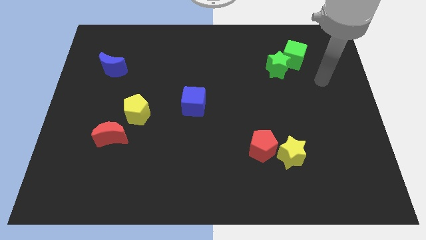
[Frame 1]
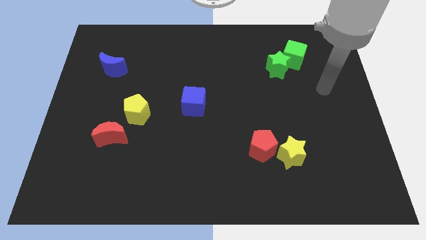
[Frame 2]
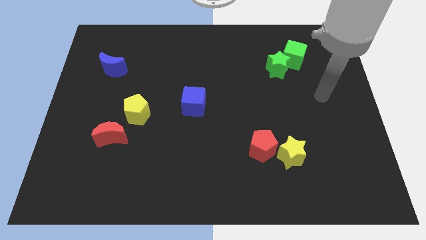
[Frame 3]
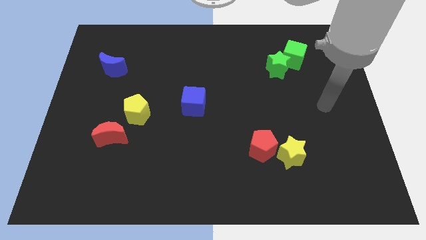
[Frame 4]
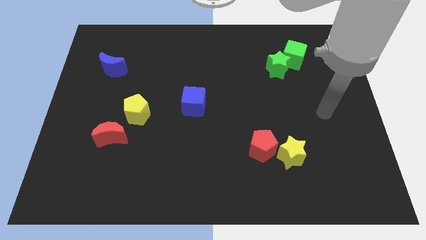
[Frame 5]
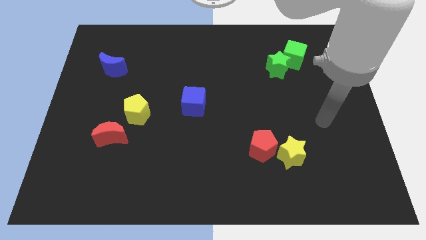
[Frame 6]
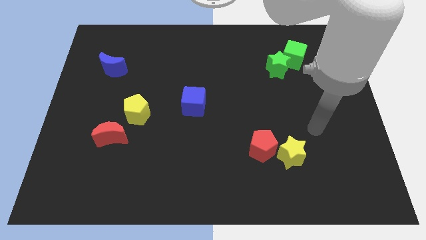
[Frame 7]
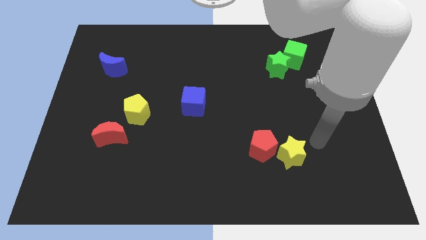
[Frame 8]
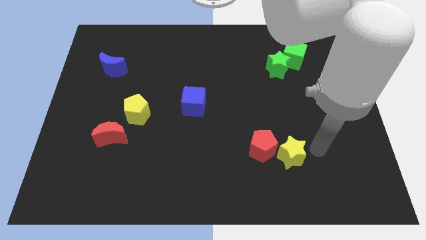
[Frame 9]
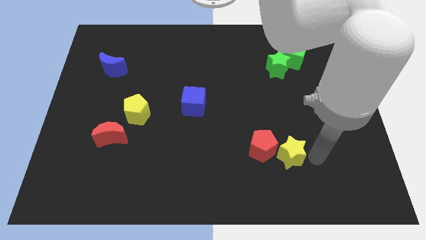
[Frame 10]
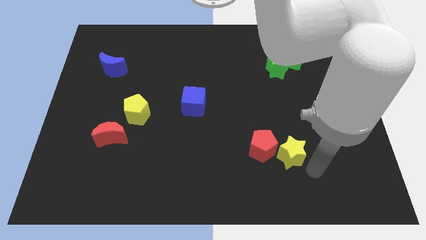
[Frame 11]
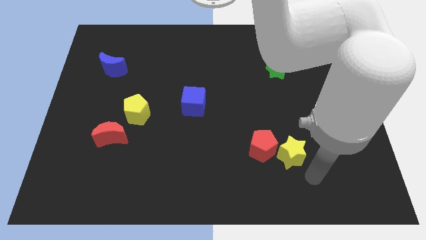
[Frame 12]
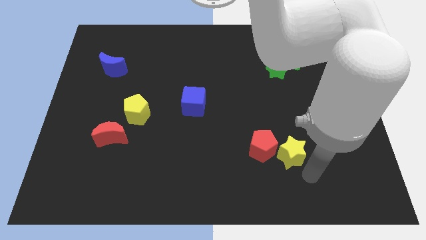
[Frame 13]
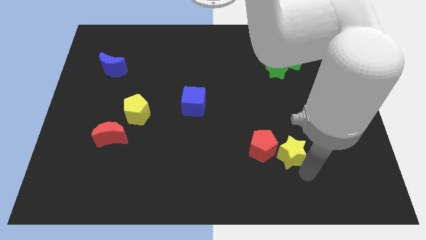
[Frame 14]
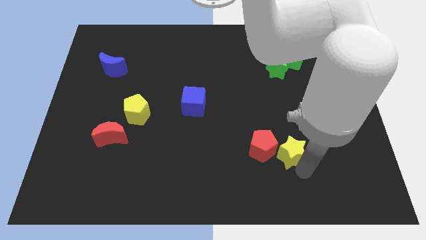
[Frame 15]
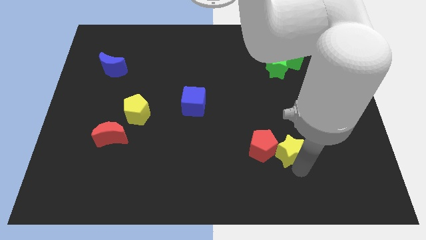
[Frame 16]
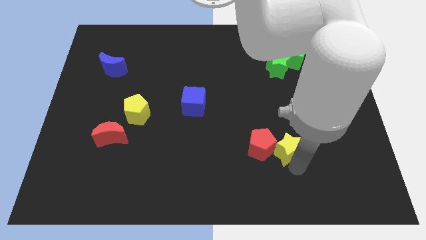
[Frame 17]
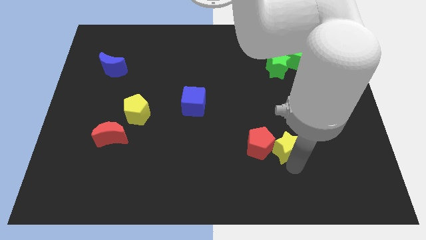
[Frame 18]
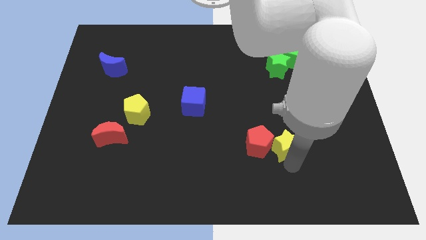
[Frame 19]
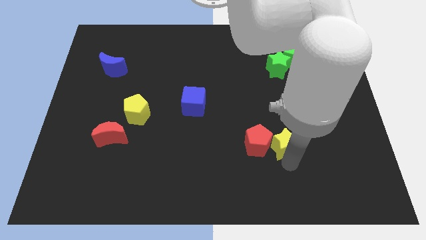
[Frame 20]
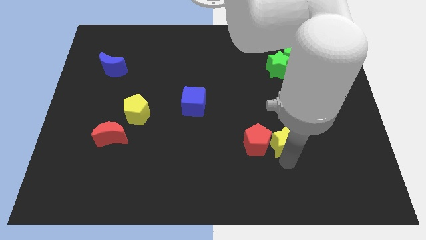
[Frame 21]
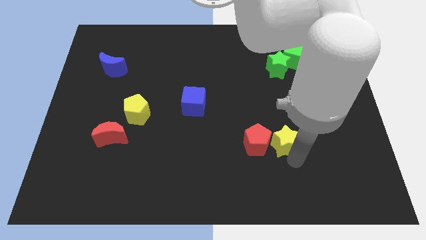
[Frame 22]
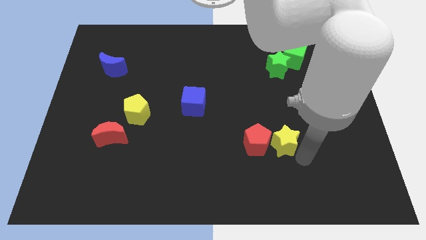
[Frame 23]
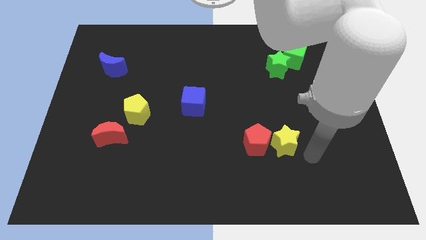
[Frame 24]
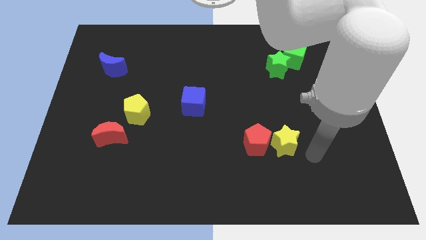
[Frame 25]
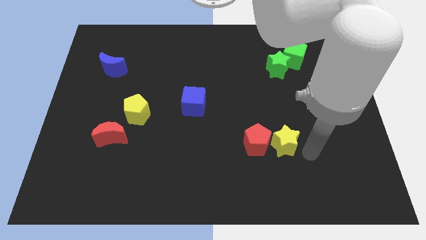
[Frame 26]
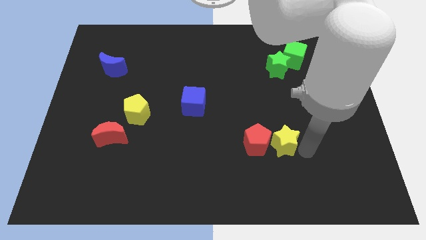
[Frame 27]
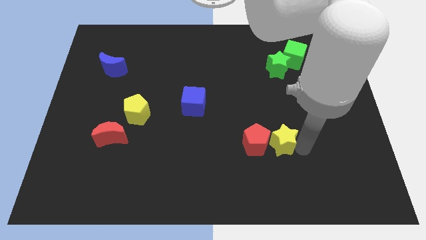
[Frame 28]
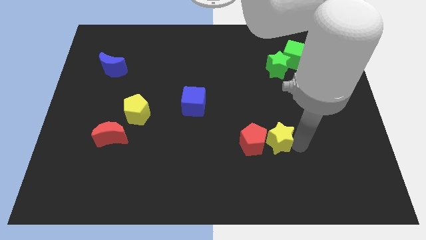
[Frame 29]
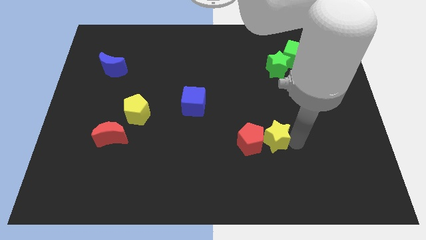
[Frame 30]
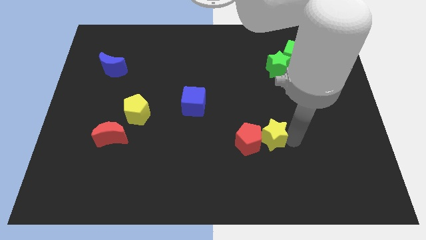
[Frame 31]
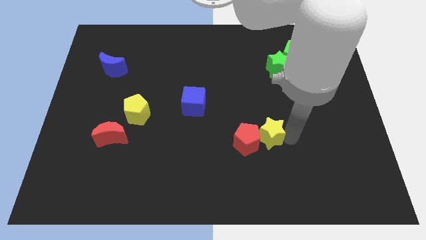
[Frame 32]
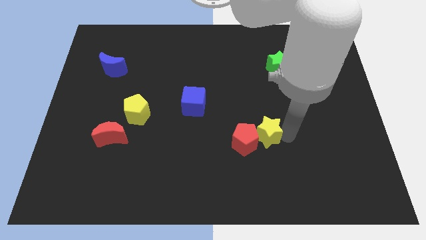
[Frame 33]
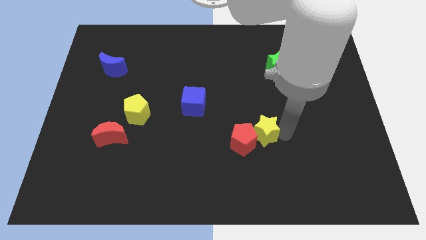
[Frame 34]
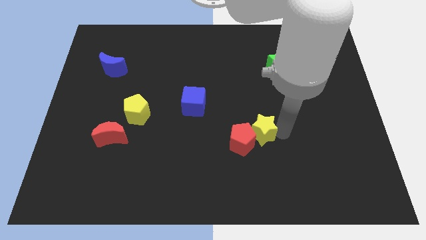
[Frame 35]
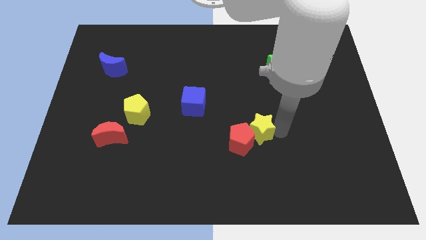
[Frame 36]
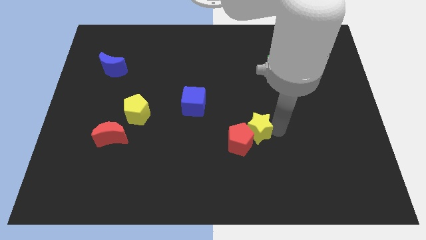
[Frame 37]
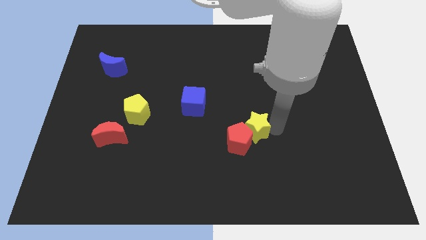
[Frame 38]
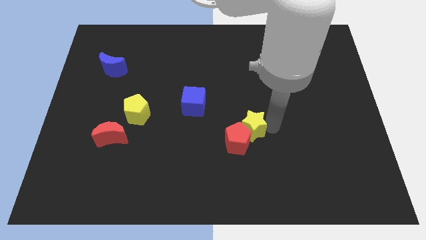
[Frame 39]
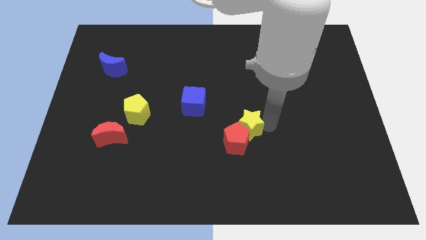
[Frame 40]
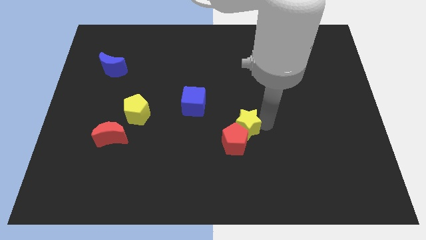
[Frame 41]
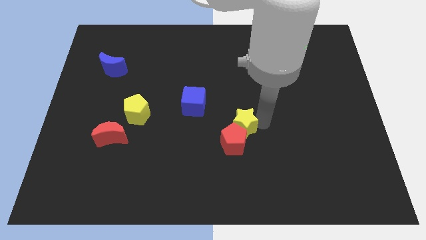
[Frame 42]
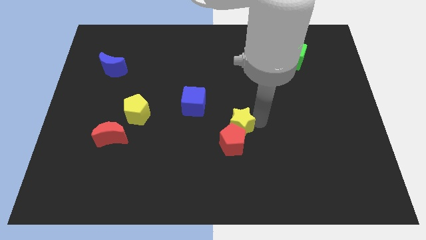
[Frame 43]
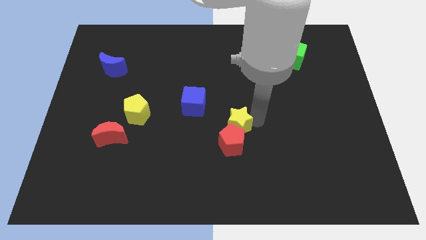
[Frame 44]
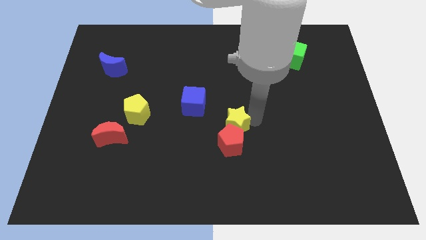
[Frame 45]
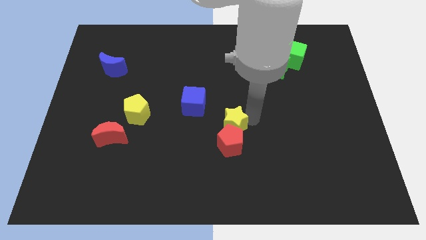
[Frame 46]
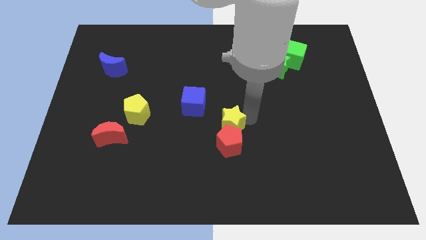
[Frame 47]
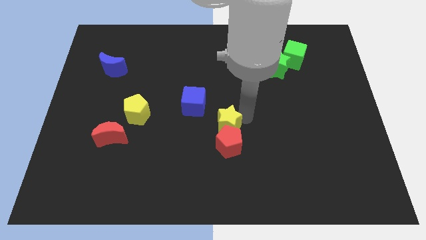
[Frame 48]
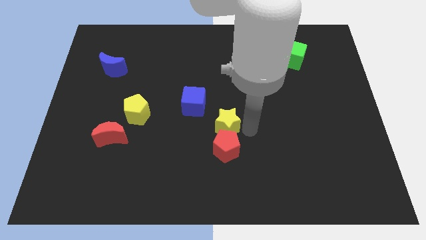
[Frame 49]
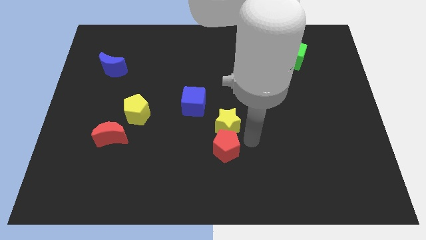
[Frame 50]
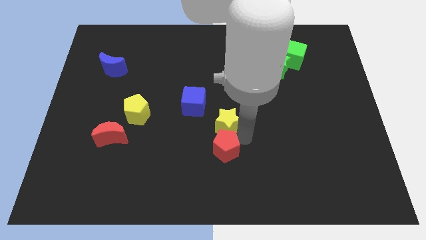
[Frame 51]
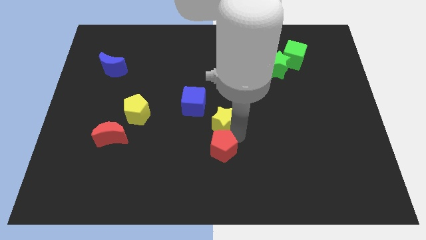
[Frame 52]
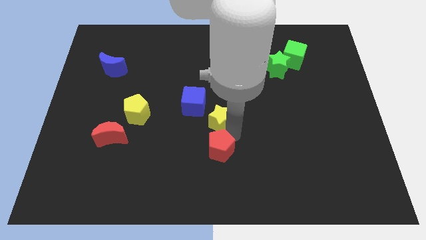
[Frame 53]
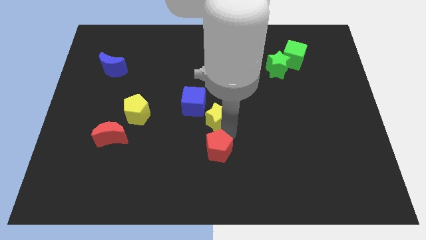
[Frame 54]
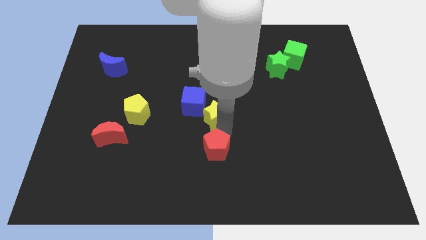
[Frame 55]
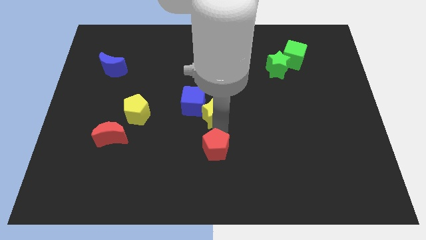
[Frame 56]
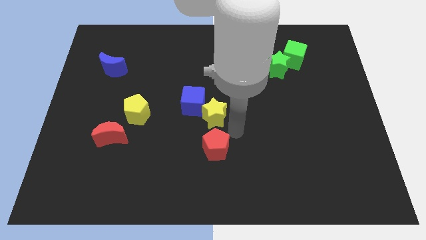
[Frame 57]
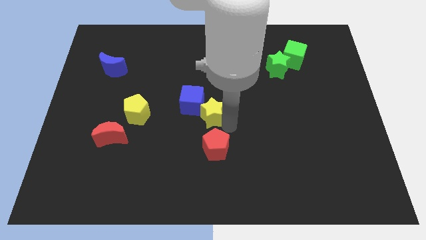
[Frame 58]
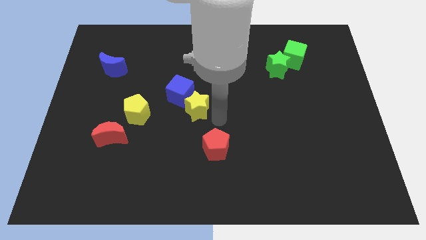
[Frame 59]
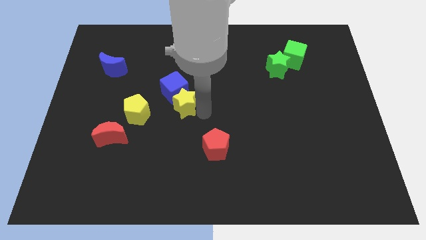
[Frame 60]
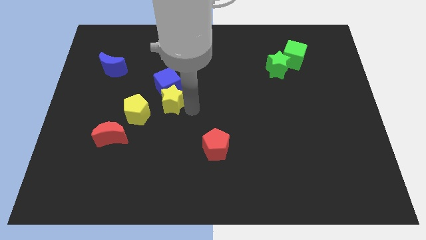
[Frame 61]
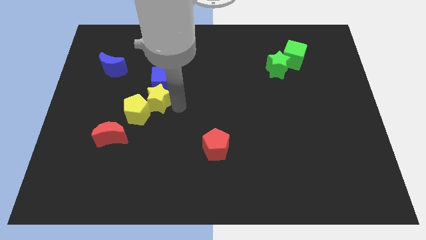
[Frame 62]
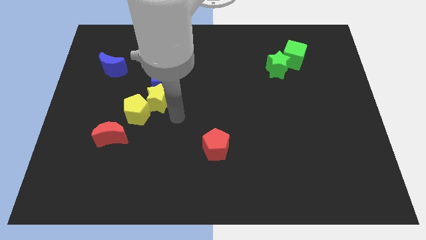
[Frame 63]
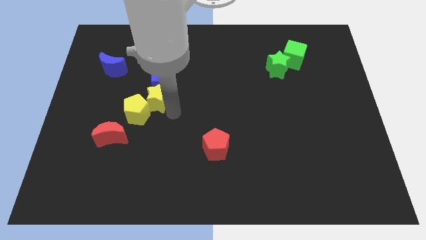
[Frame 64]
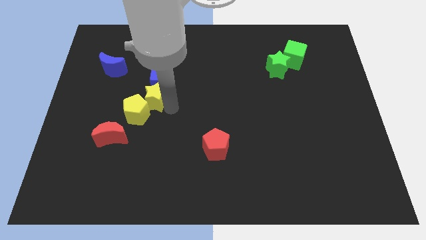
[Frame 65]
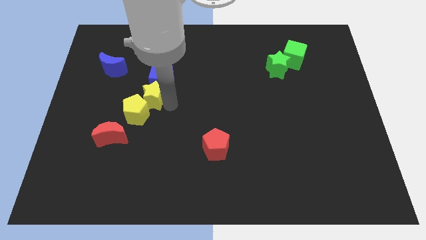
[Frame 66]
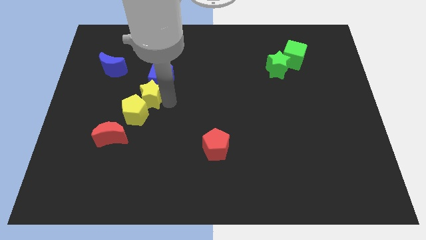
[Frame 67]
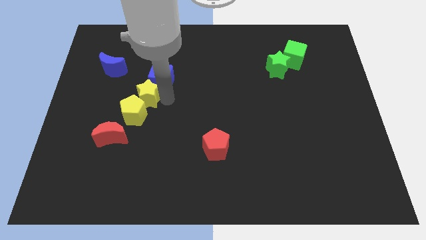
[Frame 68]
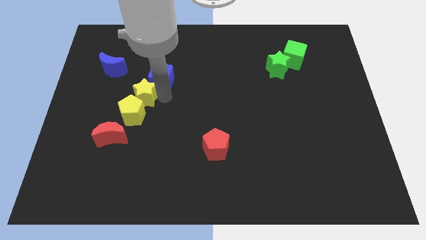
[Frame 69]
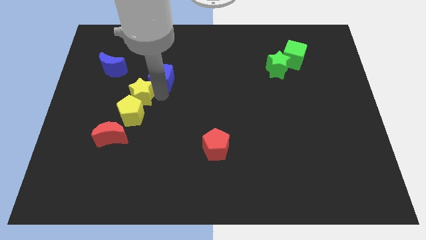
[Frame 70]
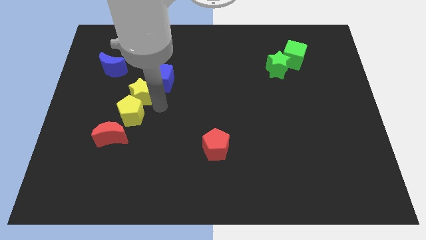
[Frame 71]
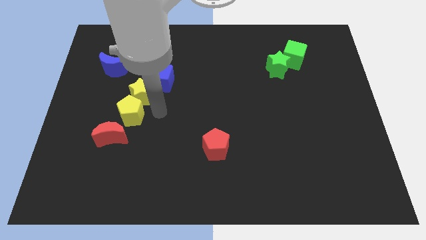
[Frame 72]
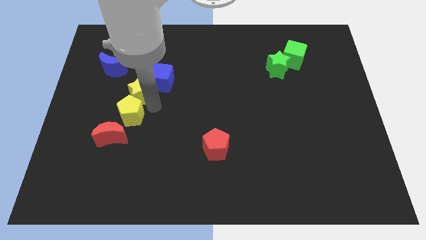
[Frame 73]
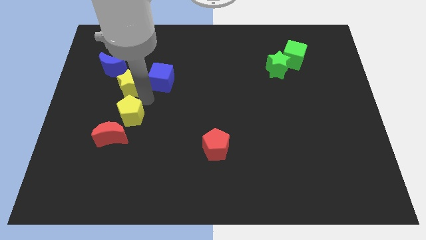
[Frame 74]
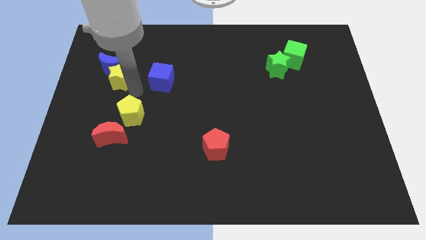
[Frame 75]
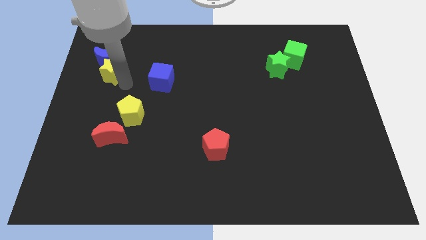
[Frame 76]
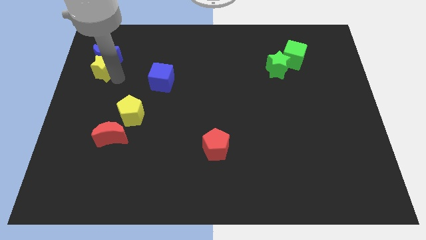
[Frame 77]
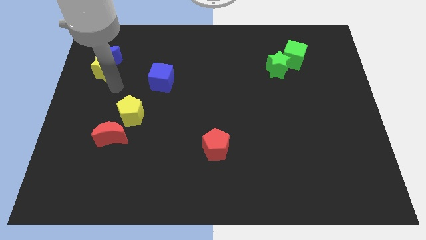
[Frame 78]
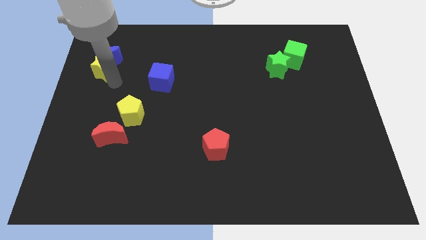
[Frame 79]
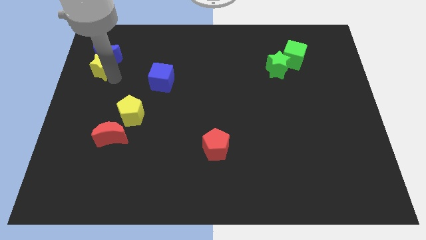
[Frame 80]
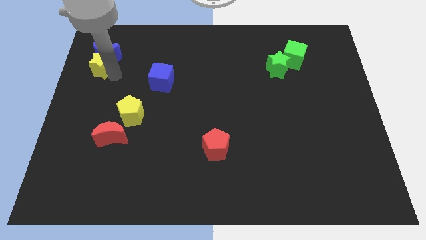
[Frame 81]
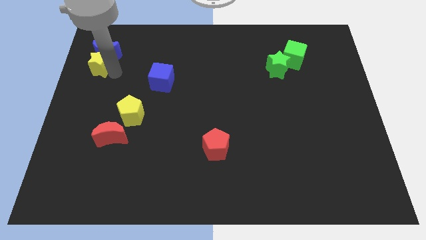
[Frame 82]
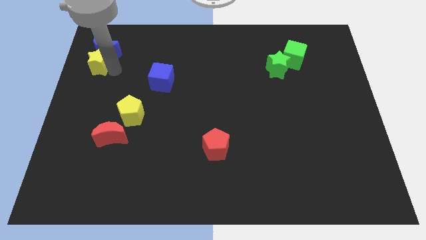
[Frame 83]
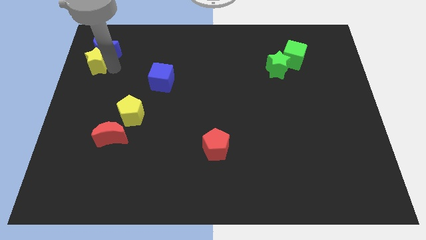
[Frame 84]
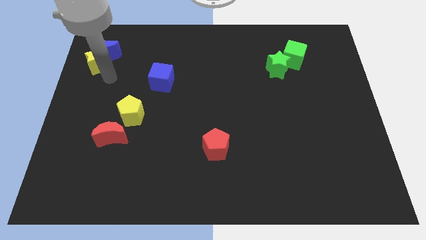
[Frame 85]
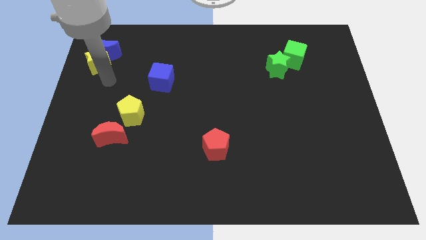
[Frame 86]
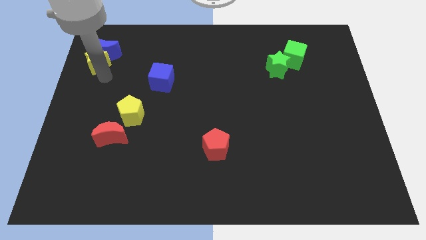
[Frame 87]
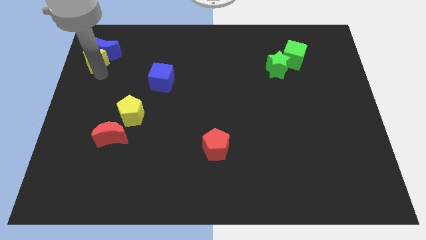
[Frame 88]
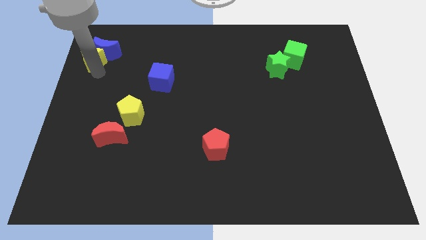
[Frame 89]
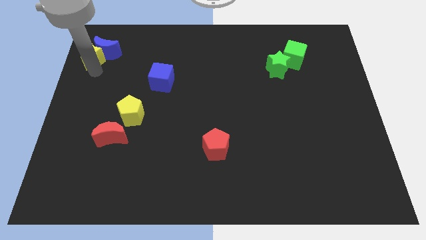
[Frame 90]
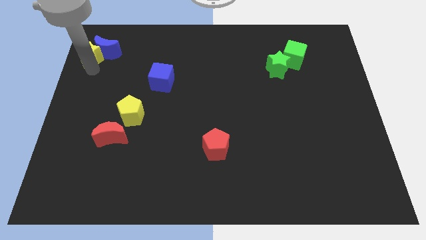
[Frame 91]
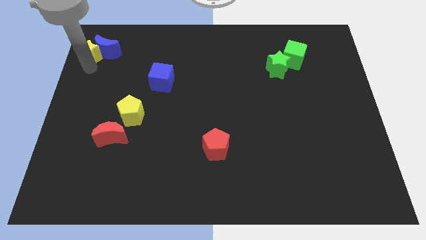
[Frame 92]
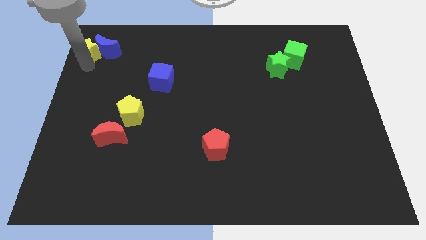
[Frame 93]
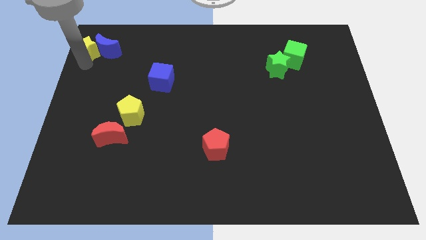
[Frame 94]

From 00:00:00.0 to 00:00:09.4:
push the yellow star to the upper left corner
